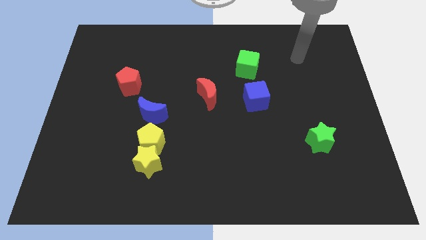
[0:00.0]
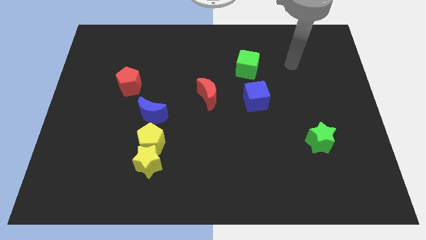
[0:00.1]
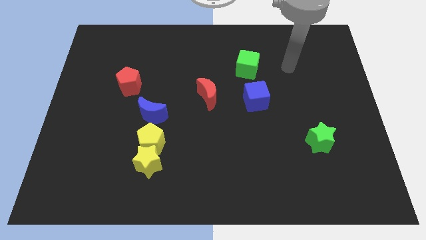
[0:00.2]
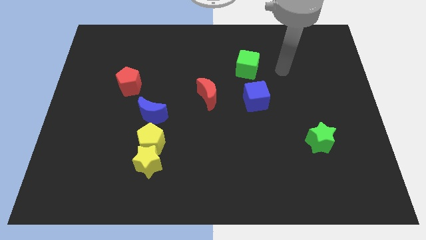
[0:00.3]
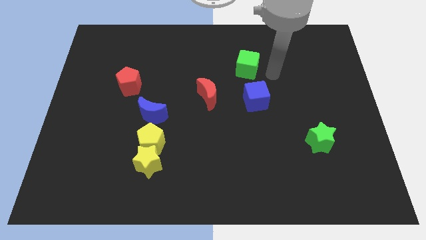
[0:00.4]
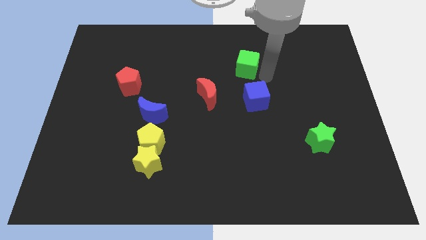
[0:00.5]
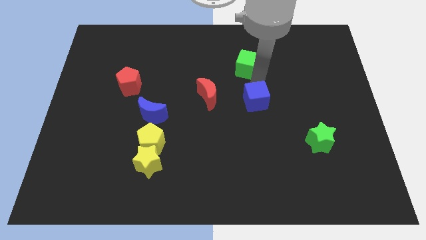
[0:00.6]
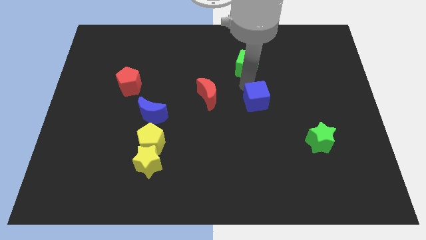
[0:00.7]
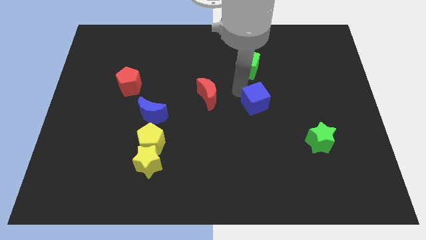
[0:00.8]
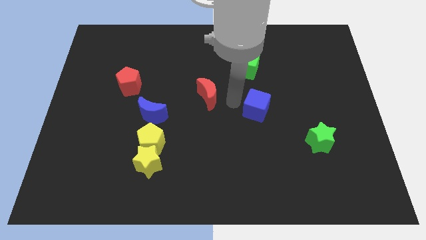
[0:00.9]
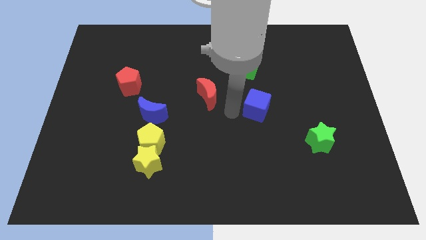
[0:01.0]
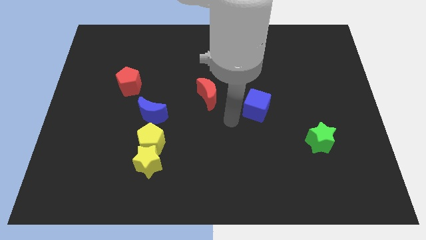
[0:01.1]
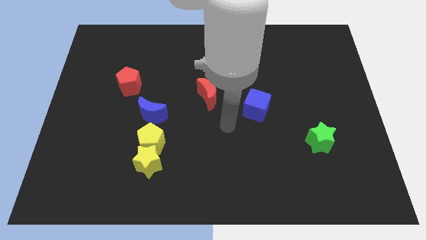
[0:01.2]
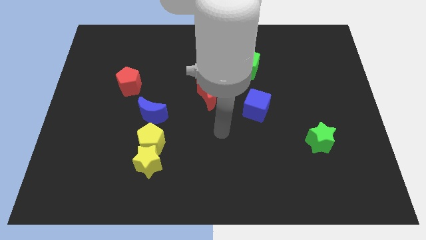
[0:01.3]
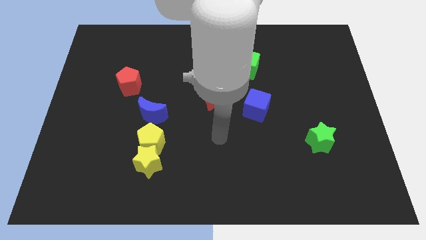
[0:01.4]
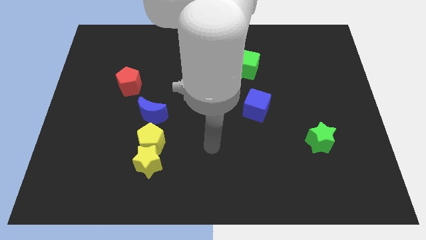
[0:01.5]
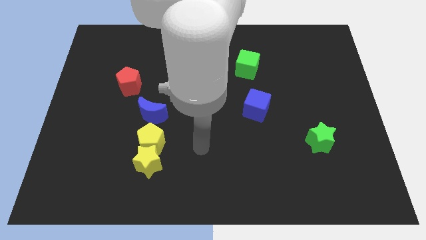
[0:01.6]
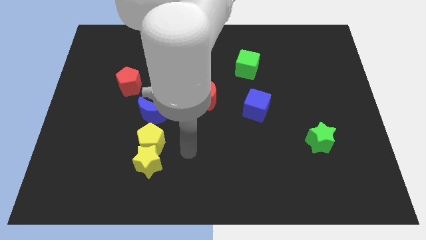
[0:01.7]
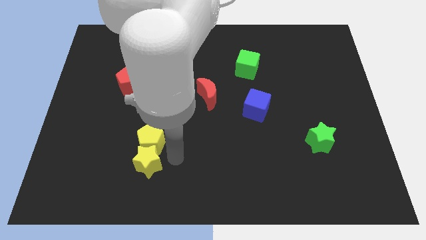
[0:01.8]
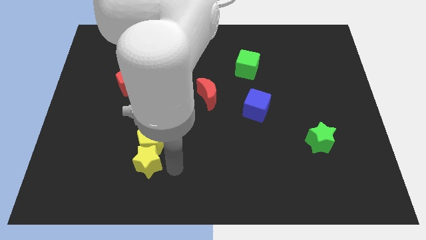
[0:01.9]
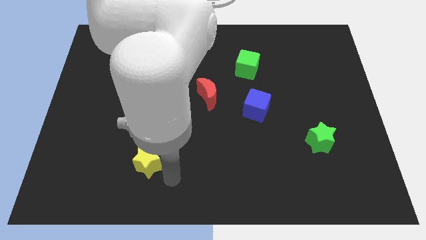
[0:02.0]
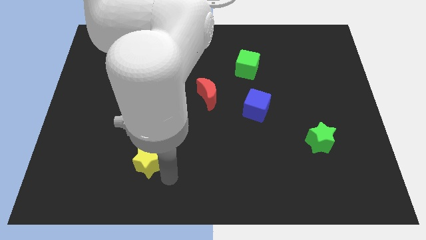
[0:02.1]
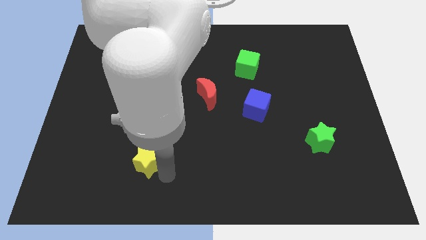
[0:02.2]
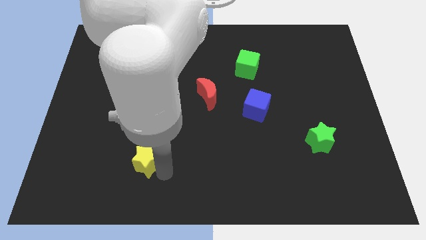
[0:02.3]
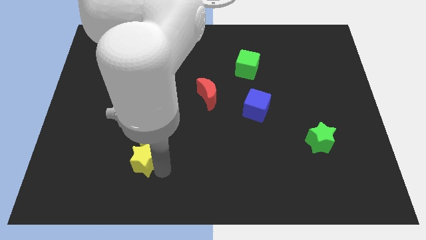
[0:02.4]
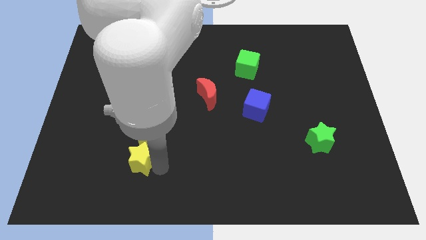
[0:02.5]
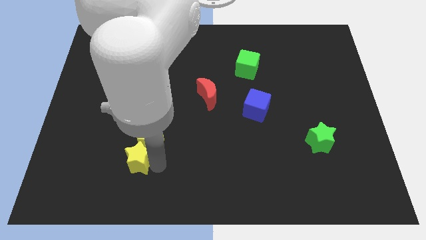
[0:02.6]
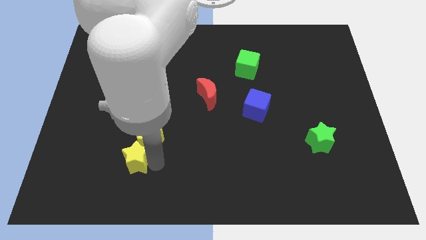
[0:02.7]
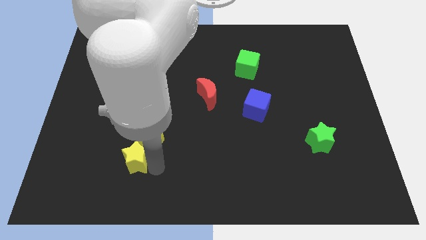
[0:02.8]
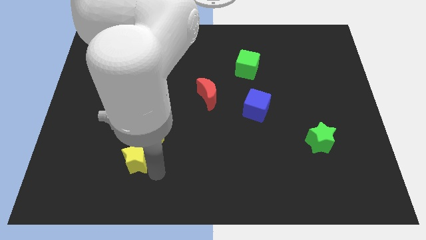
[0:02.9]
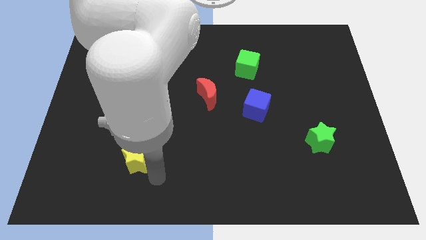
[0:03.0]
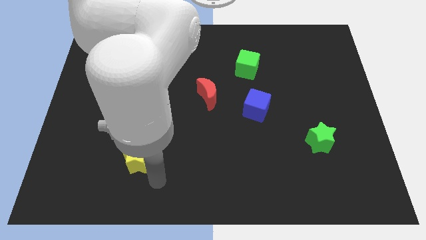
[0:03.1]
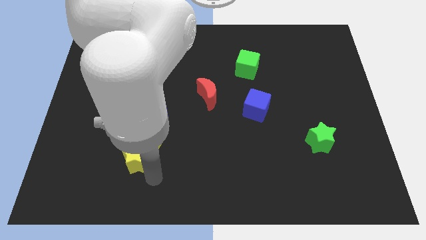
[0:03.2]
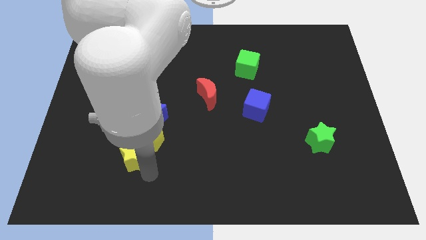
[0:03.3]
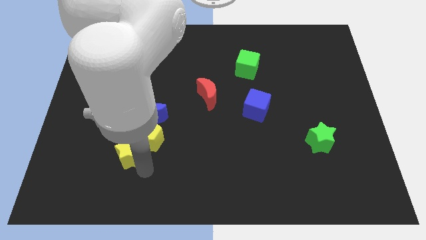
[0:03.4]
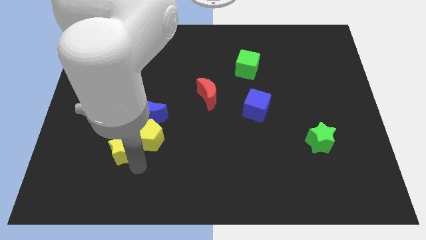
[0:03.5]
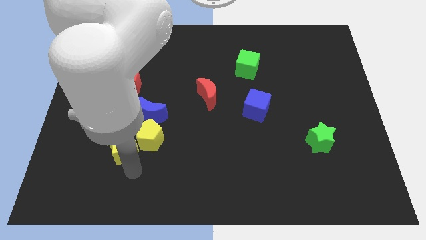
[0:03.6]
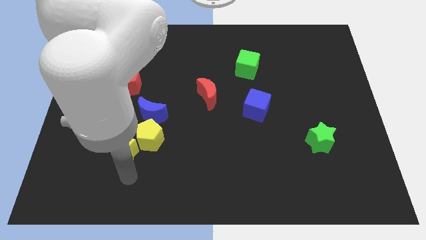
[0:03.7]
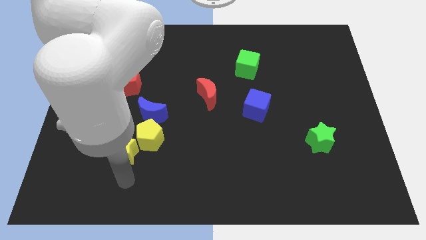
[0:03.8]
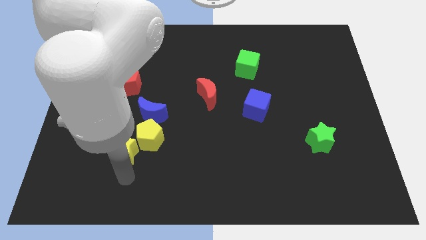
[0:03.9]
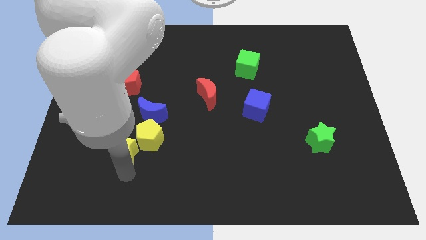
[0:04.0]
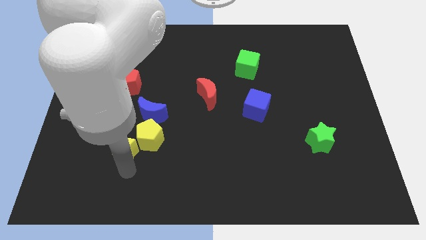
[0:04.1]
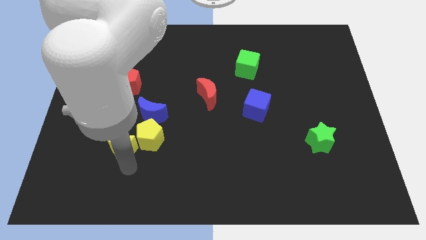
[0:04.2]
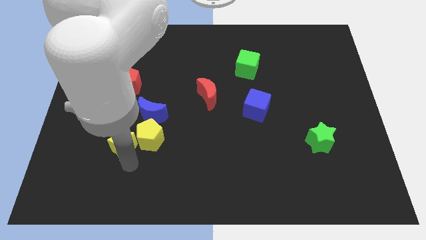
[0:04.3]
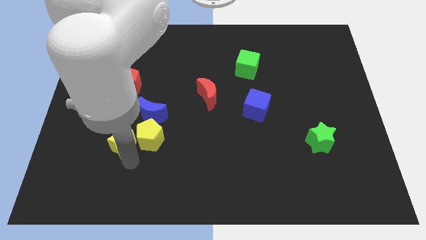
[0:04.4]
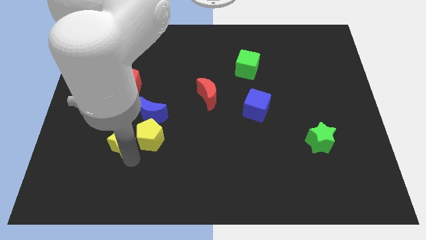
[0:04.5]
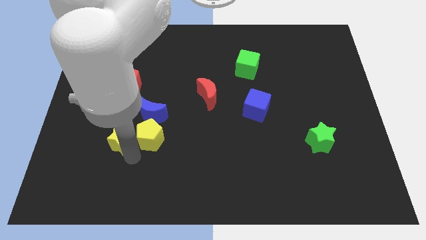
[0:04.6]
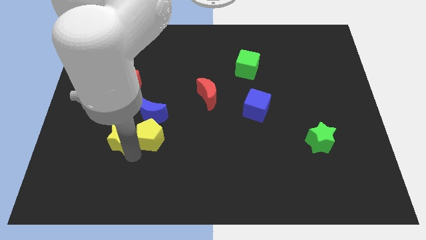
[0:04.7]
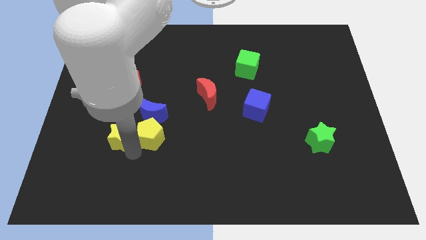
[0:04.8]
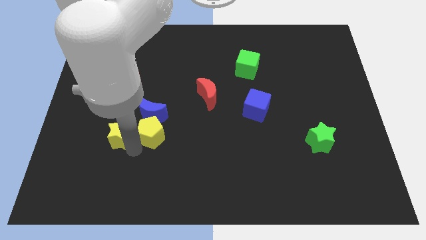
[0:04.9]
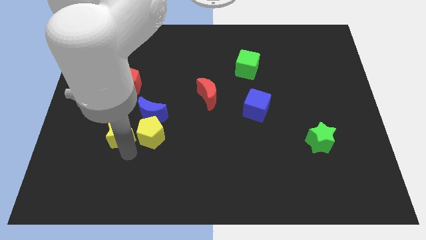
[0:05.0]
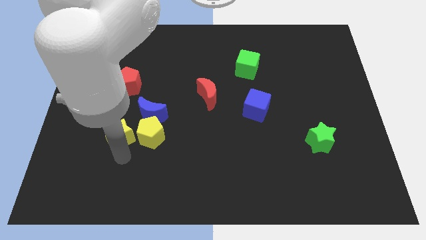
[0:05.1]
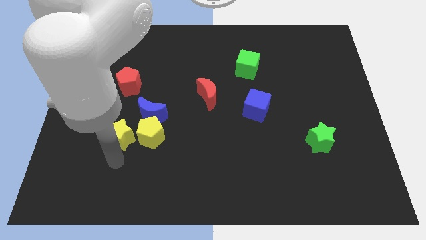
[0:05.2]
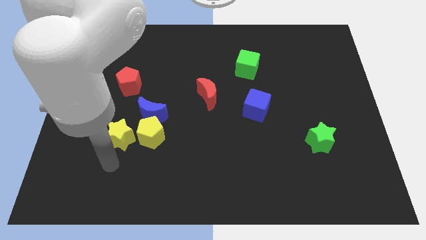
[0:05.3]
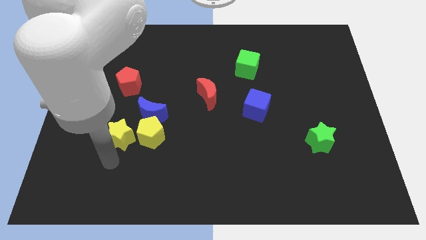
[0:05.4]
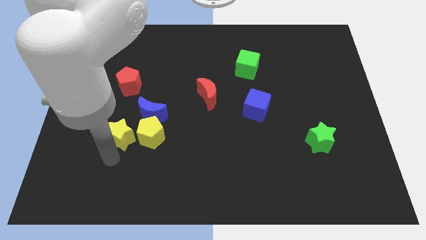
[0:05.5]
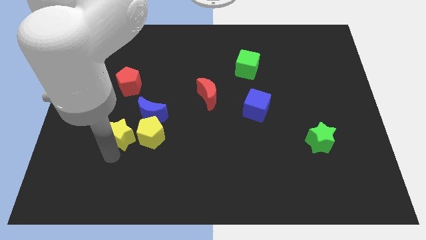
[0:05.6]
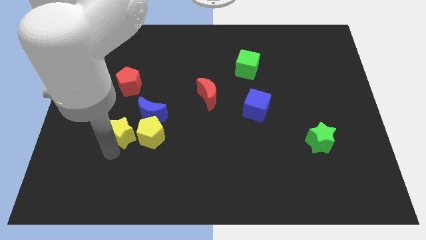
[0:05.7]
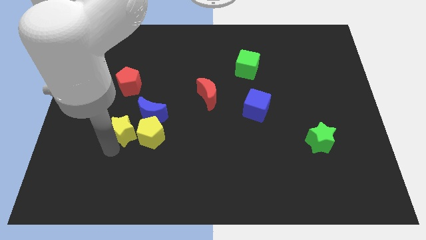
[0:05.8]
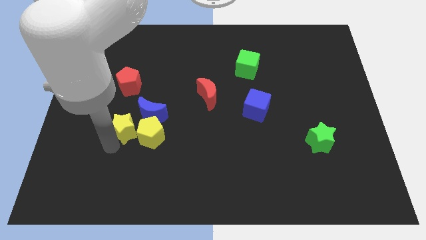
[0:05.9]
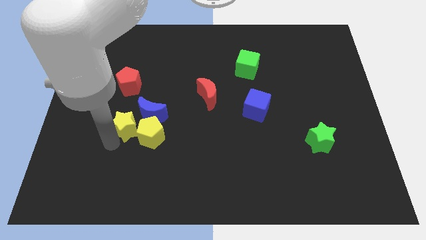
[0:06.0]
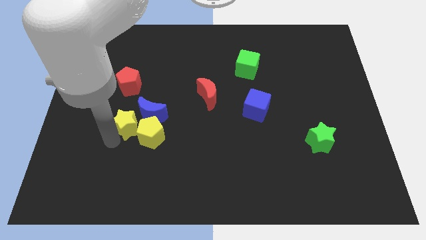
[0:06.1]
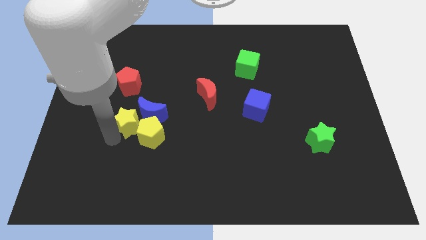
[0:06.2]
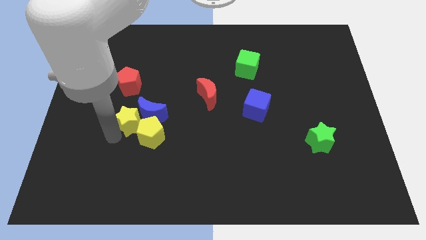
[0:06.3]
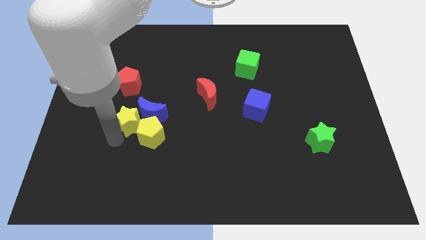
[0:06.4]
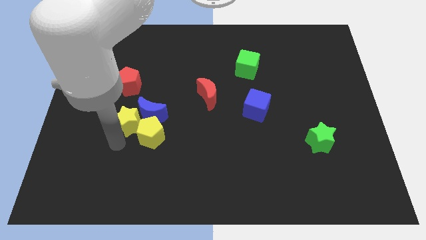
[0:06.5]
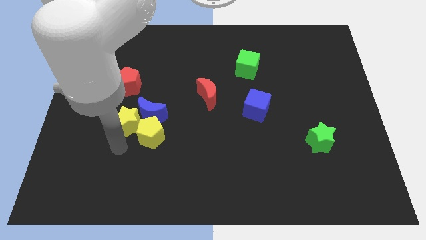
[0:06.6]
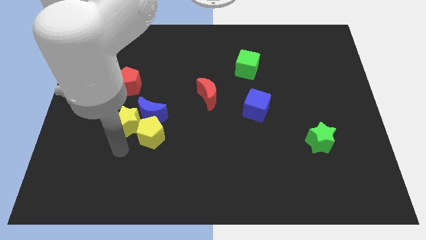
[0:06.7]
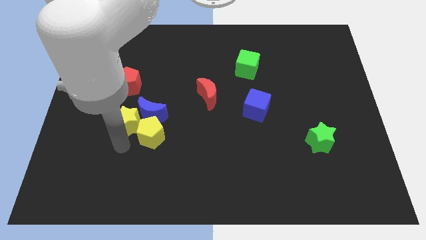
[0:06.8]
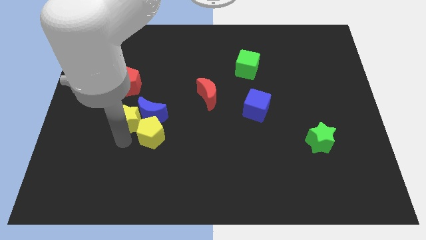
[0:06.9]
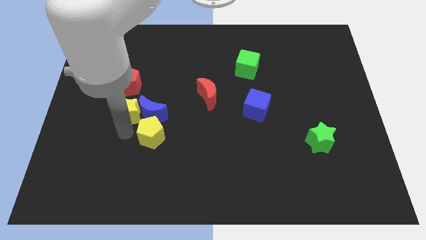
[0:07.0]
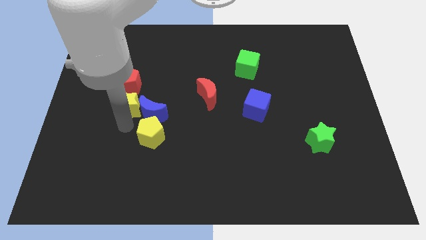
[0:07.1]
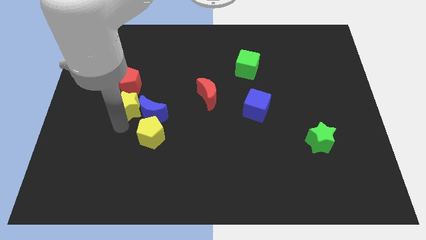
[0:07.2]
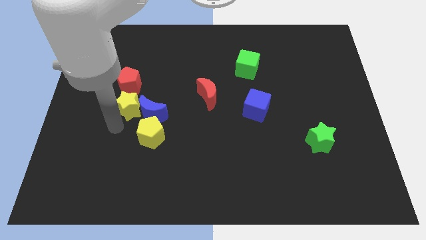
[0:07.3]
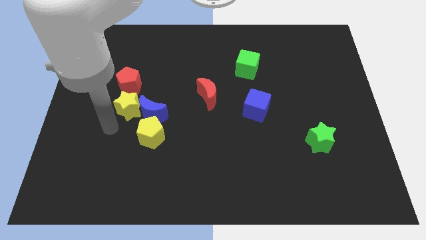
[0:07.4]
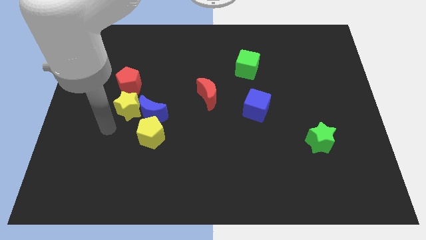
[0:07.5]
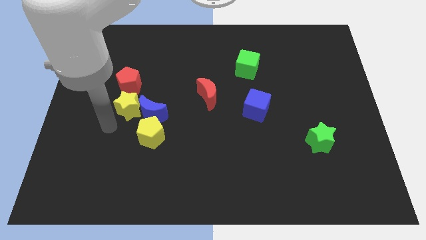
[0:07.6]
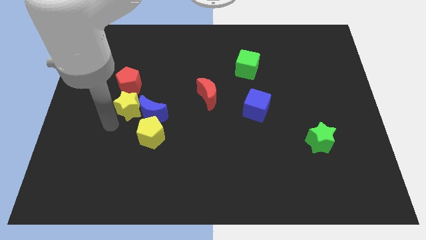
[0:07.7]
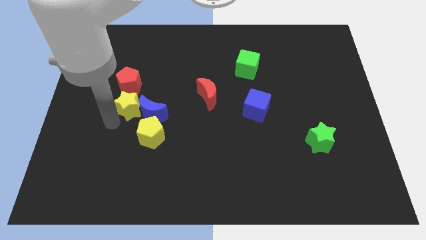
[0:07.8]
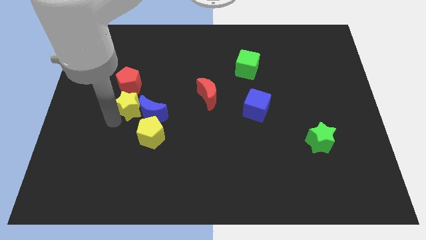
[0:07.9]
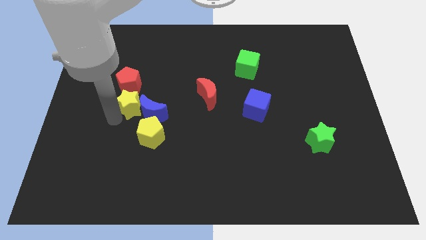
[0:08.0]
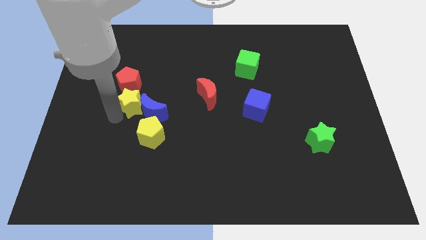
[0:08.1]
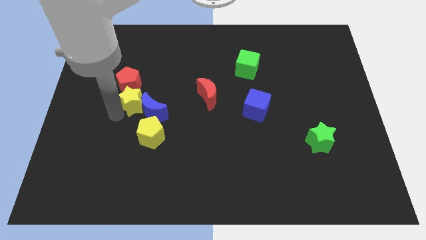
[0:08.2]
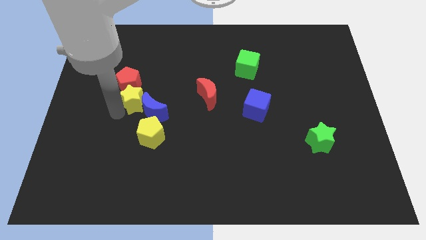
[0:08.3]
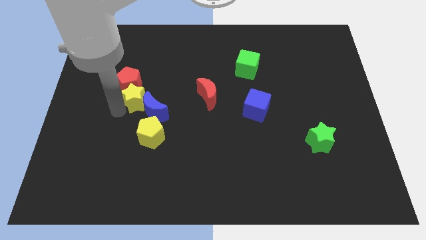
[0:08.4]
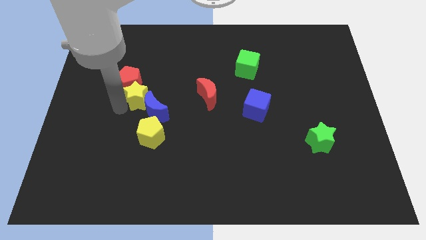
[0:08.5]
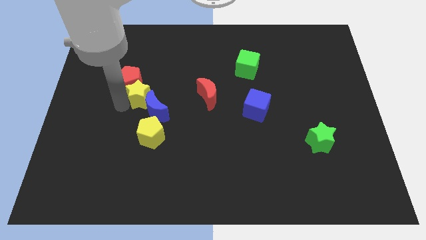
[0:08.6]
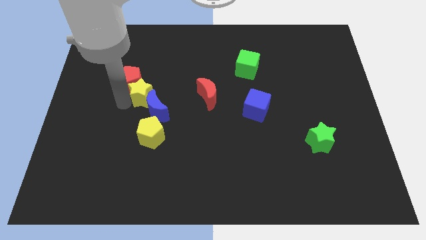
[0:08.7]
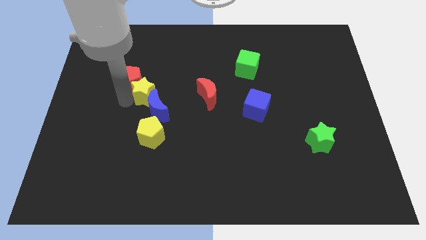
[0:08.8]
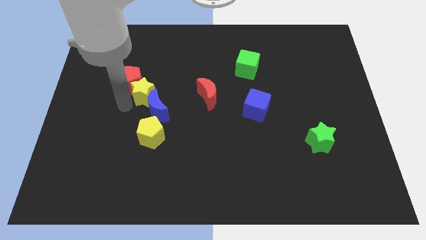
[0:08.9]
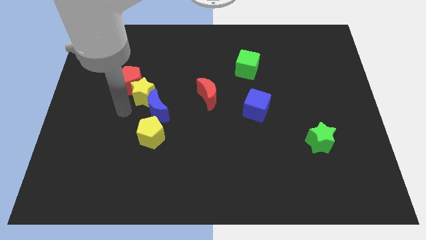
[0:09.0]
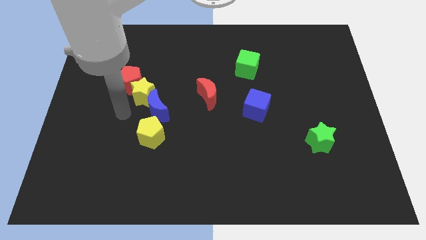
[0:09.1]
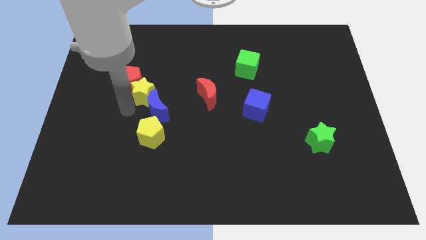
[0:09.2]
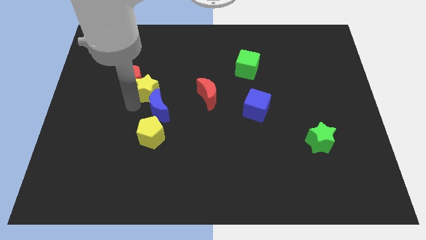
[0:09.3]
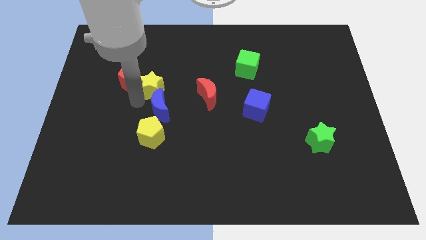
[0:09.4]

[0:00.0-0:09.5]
slide the yellow star up
